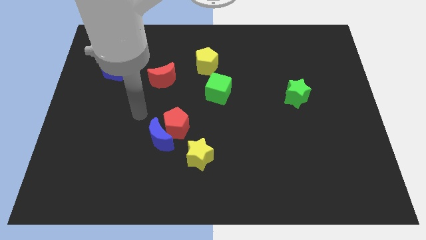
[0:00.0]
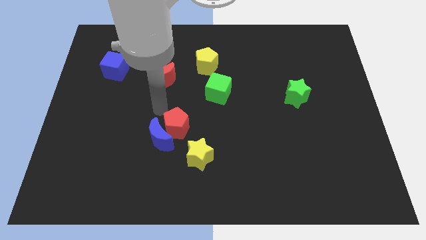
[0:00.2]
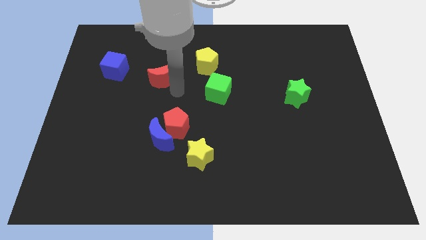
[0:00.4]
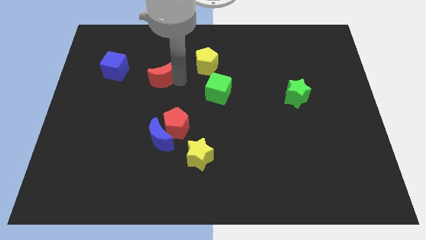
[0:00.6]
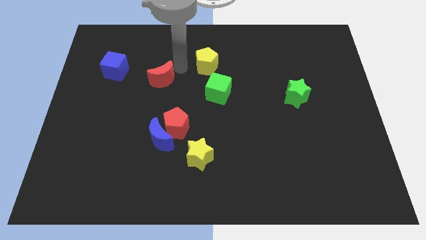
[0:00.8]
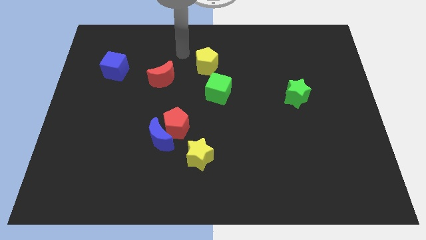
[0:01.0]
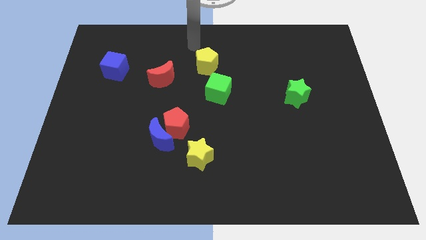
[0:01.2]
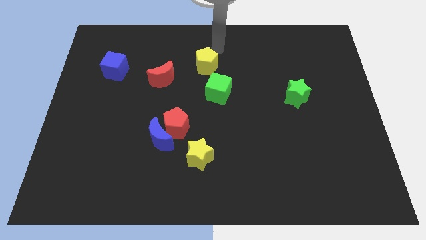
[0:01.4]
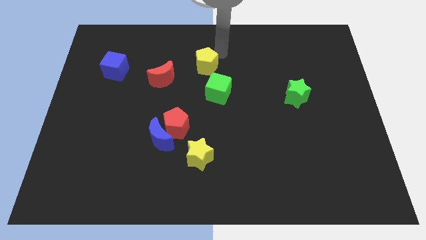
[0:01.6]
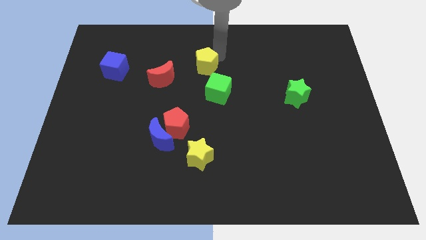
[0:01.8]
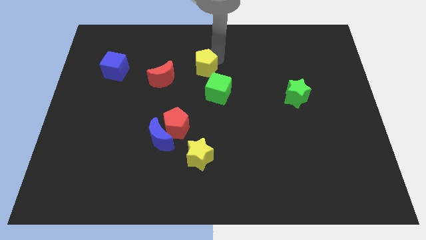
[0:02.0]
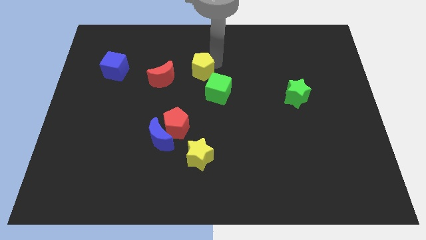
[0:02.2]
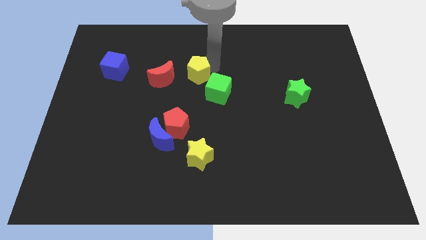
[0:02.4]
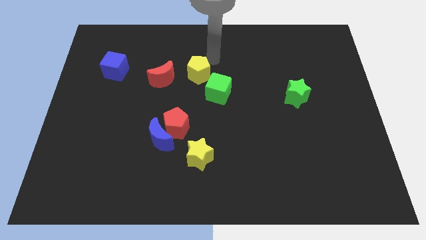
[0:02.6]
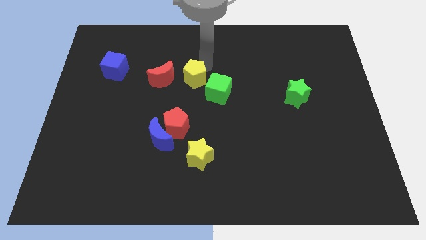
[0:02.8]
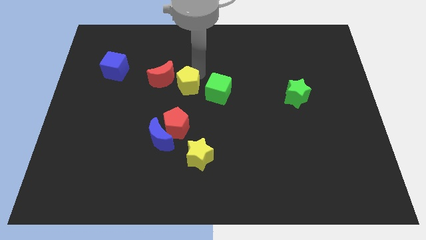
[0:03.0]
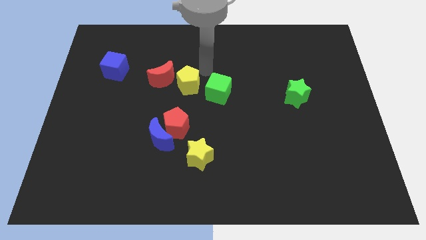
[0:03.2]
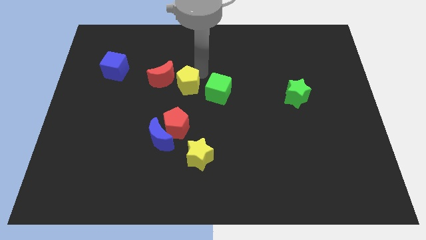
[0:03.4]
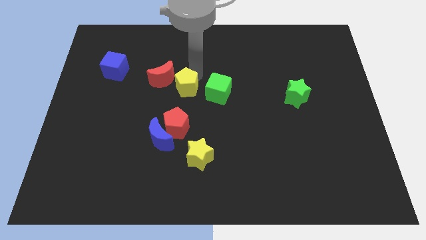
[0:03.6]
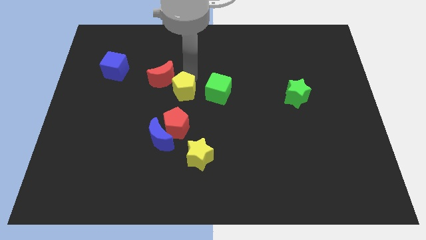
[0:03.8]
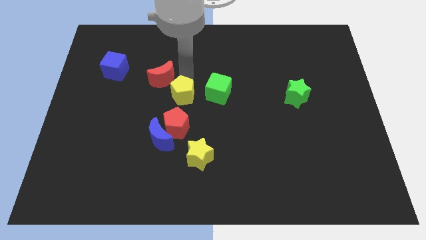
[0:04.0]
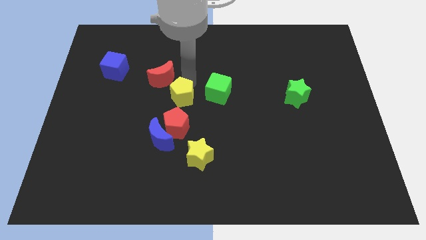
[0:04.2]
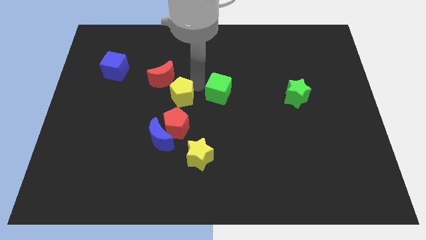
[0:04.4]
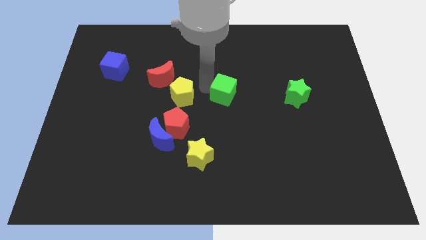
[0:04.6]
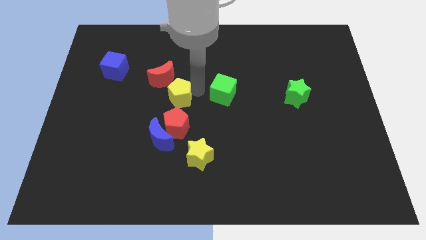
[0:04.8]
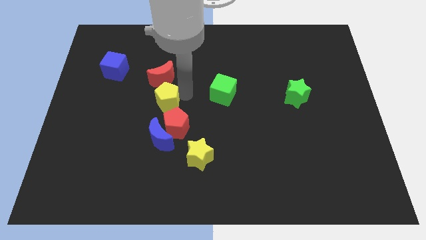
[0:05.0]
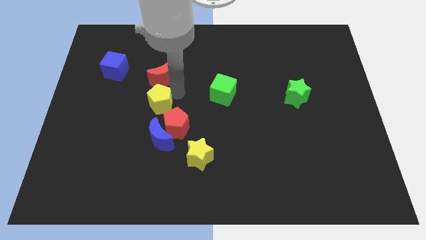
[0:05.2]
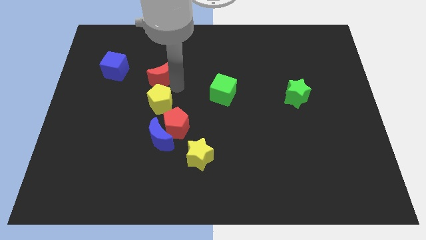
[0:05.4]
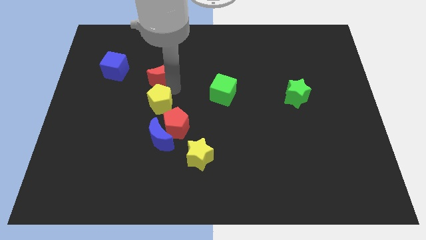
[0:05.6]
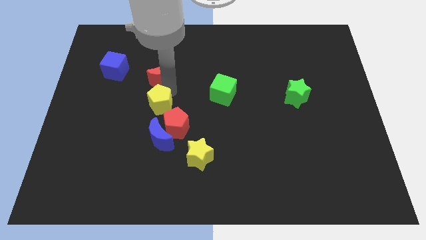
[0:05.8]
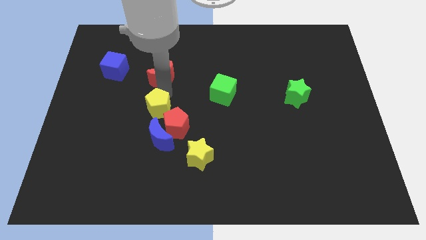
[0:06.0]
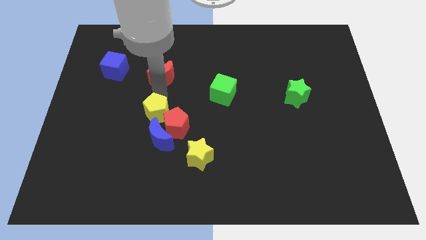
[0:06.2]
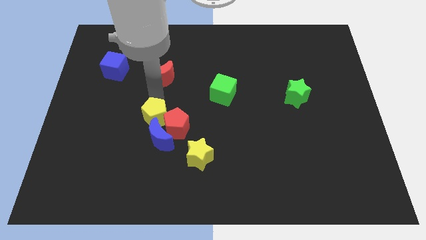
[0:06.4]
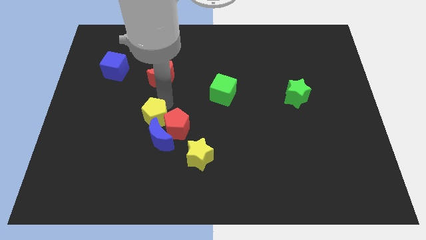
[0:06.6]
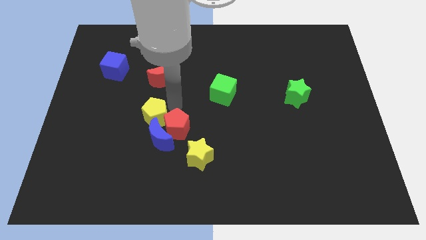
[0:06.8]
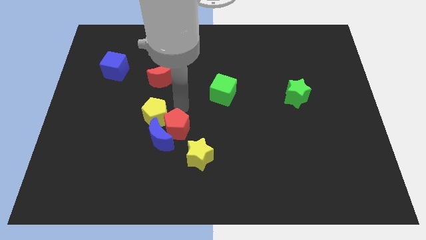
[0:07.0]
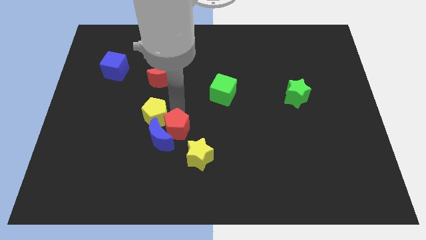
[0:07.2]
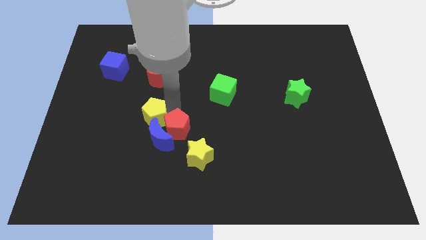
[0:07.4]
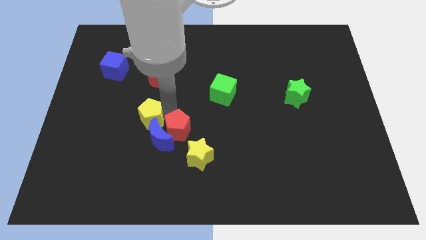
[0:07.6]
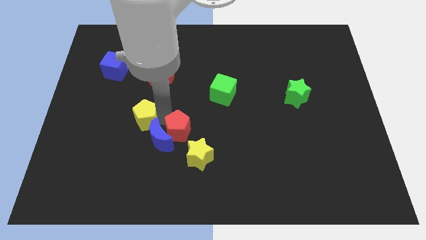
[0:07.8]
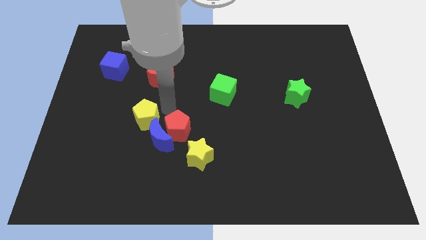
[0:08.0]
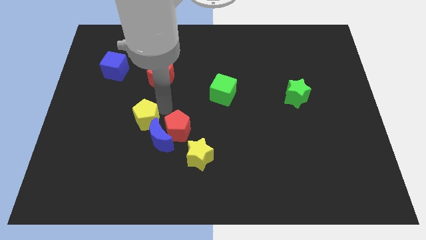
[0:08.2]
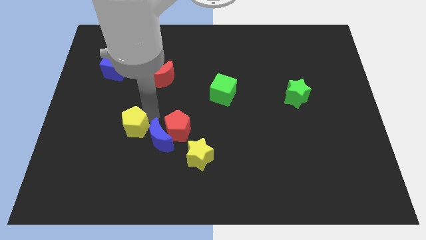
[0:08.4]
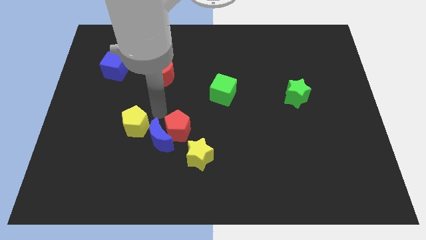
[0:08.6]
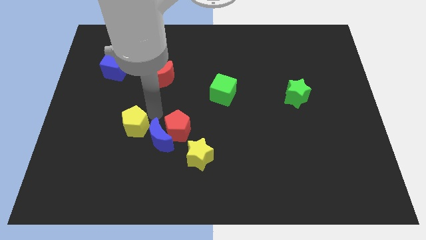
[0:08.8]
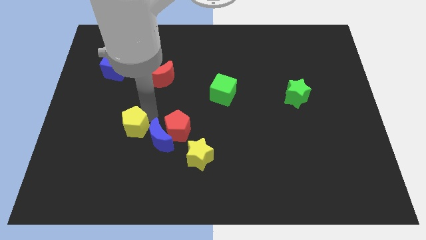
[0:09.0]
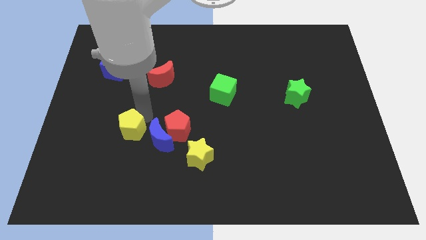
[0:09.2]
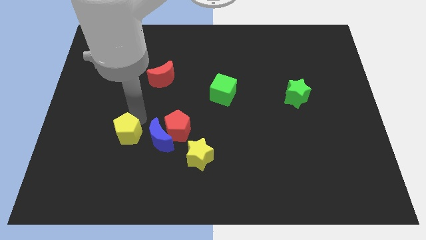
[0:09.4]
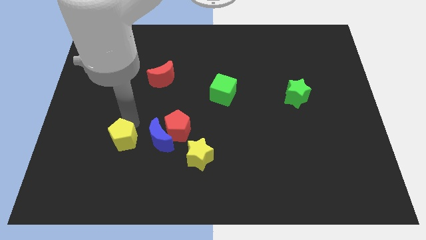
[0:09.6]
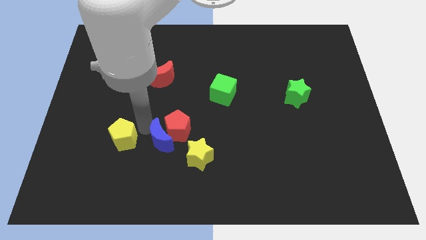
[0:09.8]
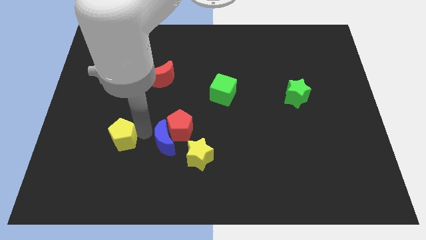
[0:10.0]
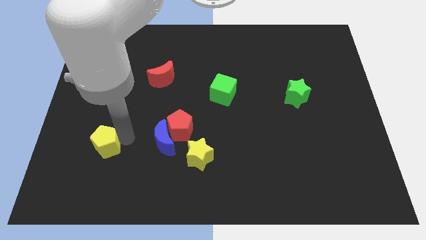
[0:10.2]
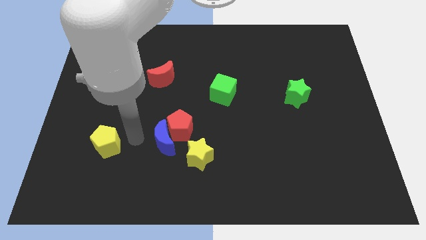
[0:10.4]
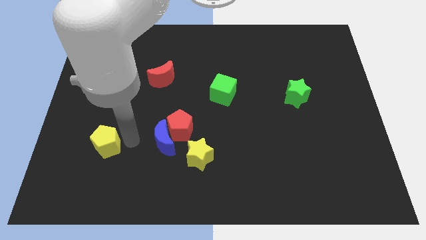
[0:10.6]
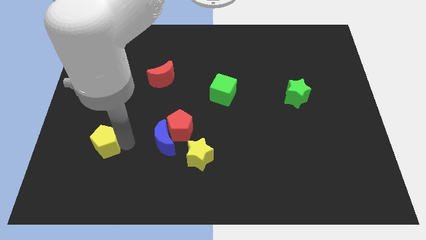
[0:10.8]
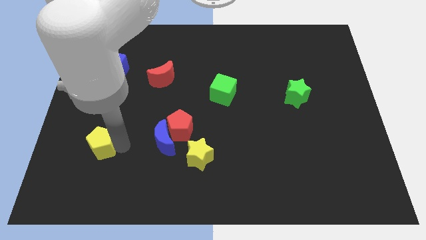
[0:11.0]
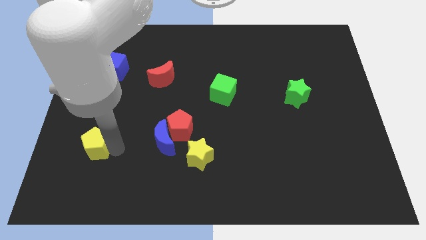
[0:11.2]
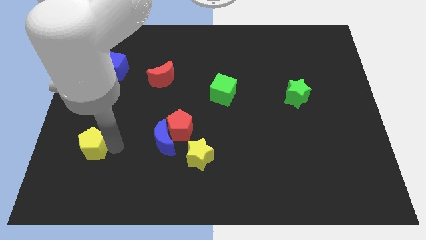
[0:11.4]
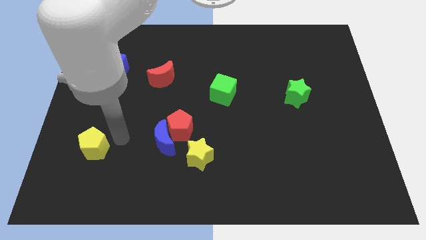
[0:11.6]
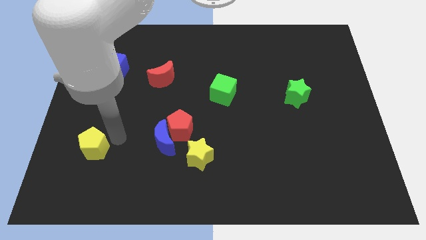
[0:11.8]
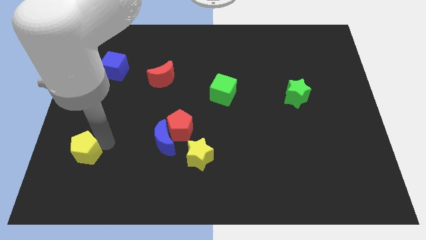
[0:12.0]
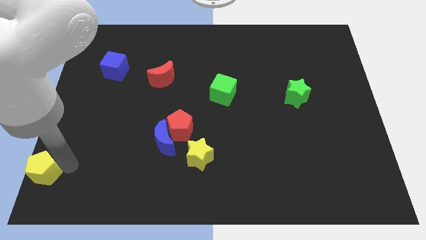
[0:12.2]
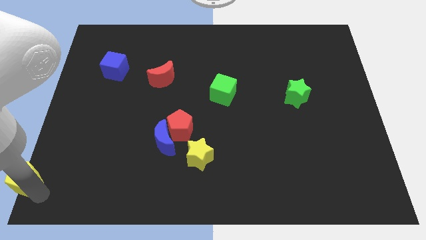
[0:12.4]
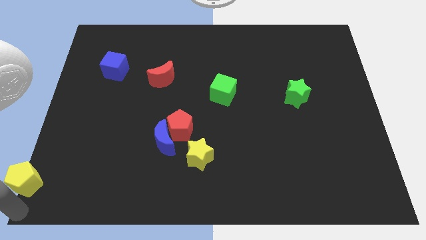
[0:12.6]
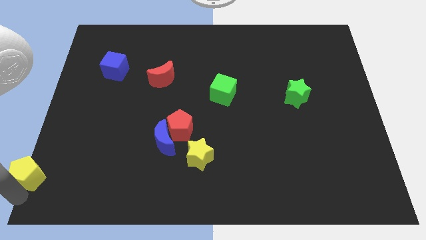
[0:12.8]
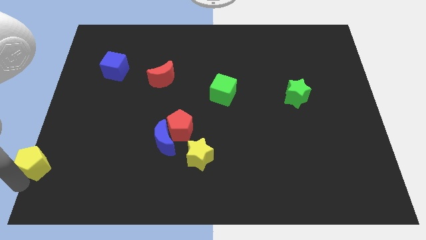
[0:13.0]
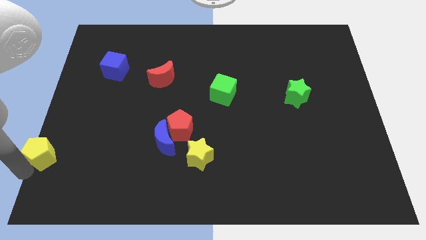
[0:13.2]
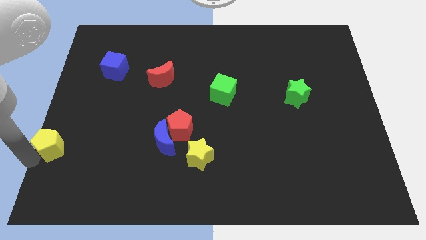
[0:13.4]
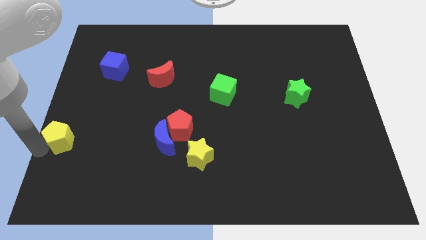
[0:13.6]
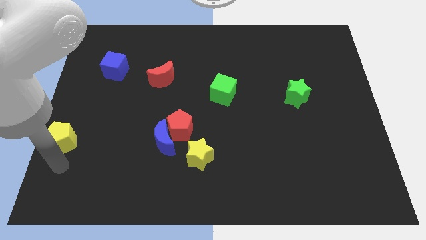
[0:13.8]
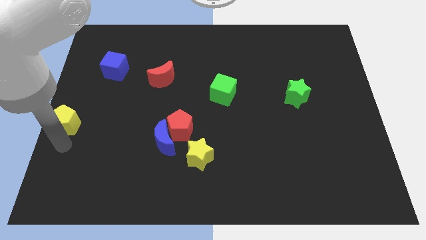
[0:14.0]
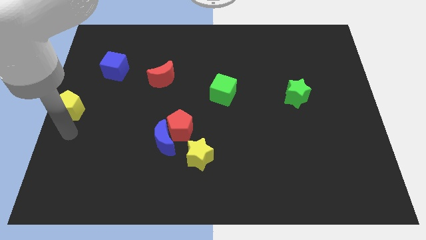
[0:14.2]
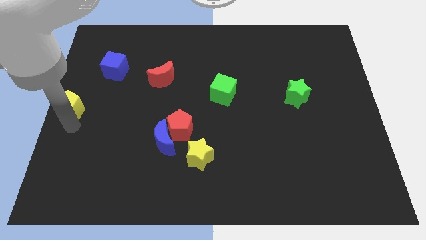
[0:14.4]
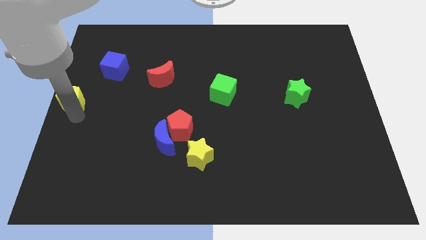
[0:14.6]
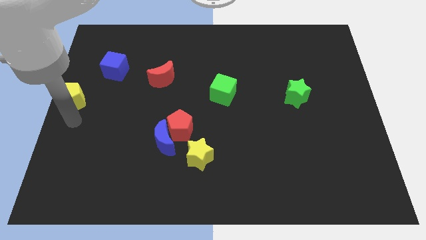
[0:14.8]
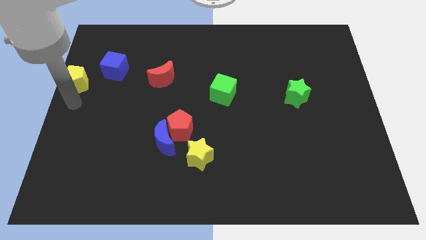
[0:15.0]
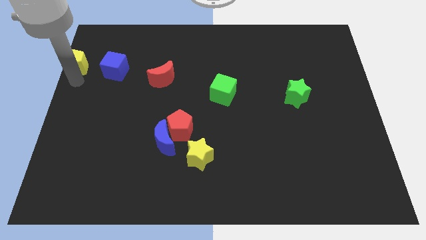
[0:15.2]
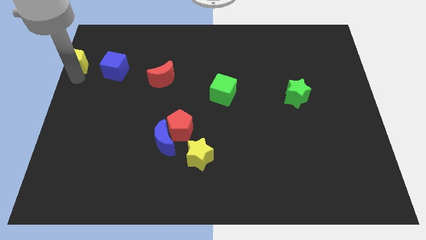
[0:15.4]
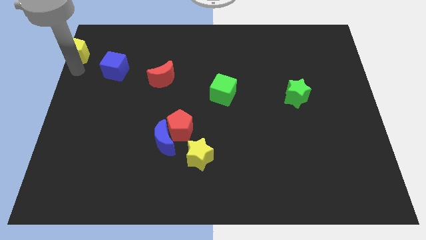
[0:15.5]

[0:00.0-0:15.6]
push the yellow pentagon to the upper left corner

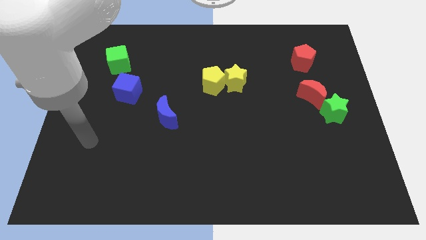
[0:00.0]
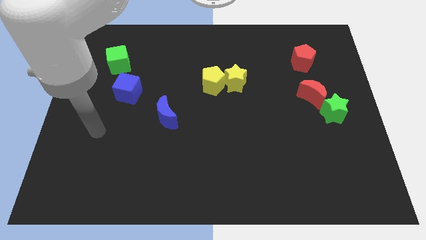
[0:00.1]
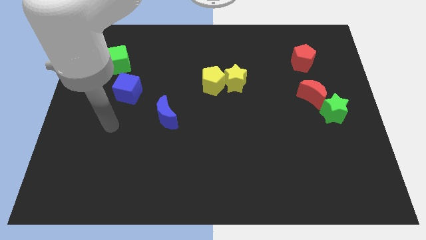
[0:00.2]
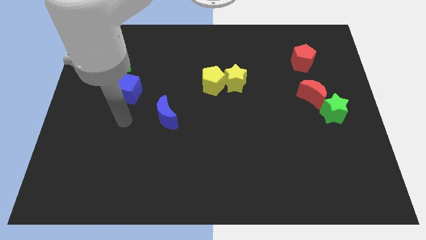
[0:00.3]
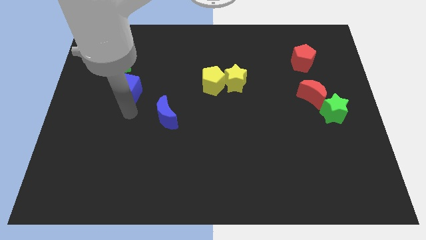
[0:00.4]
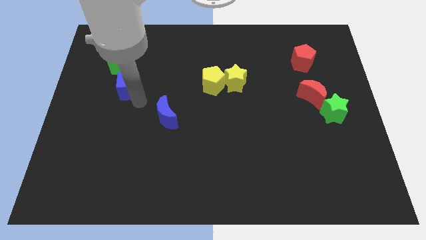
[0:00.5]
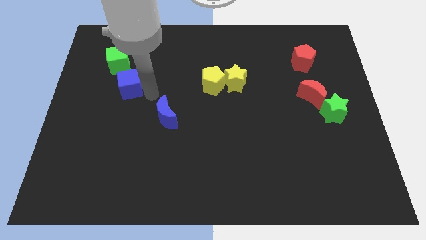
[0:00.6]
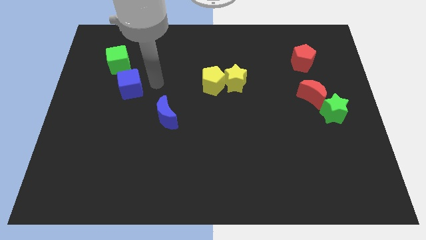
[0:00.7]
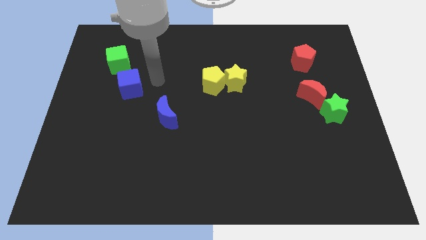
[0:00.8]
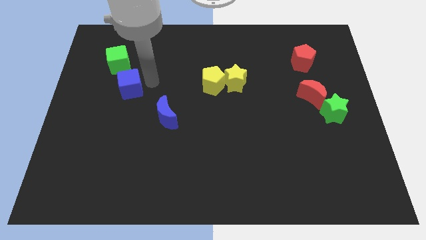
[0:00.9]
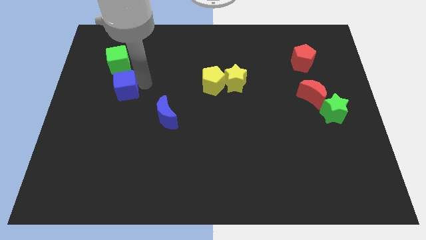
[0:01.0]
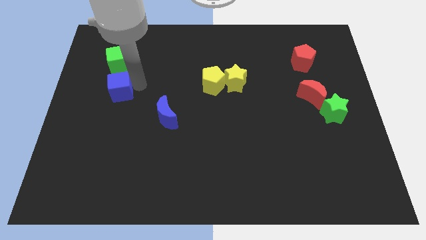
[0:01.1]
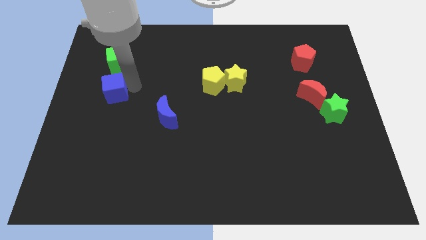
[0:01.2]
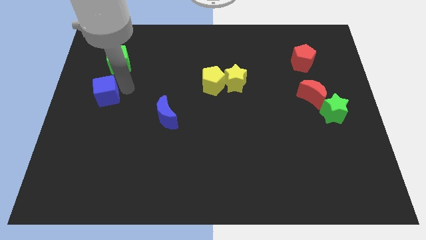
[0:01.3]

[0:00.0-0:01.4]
put the blue cube to the center left
